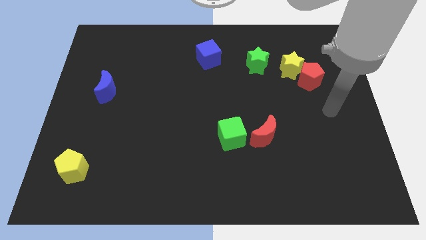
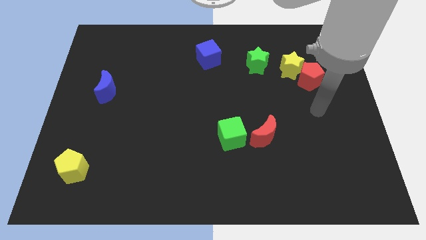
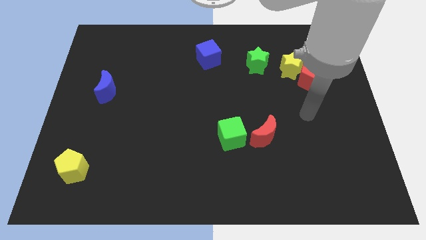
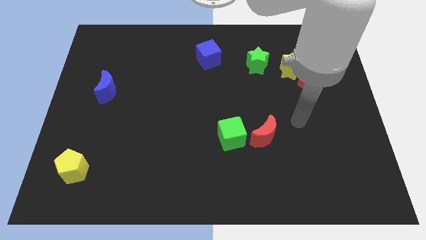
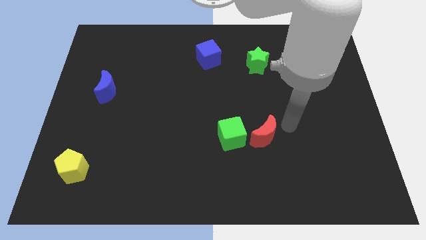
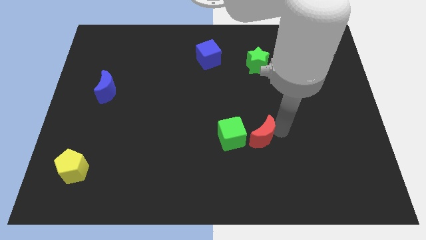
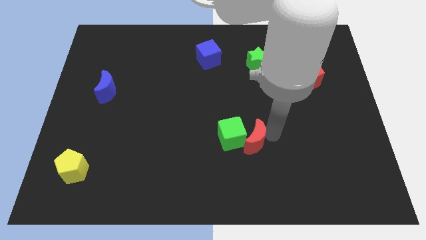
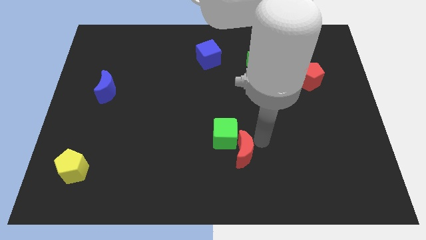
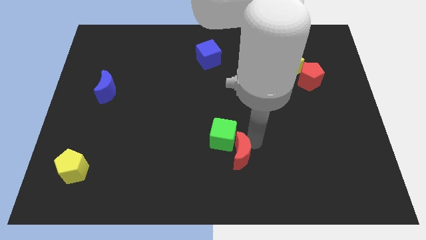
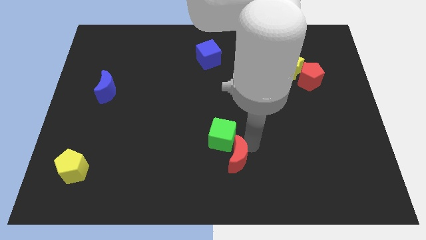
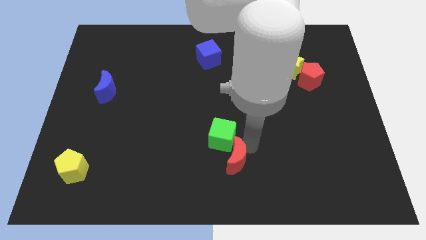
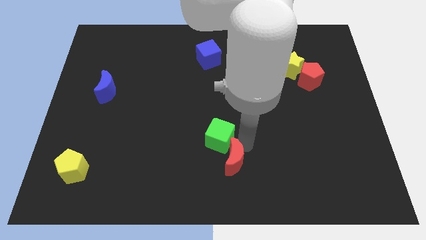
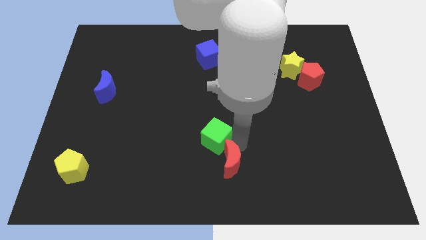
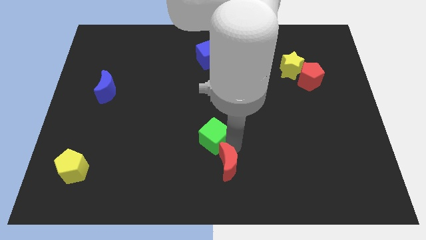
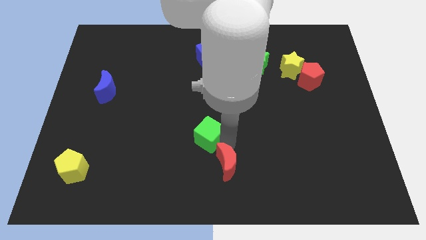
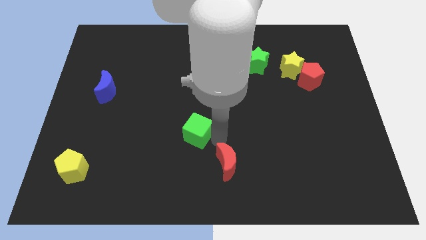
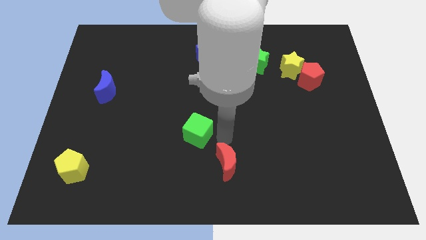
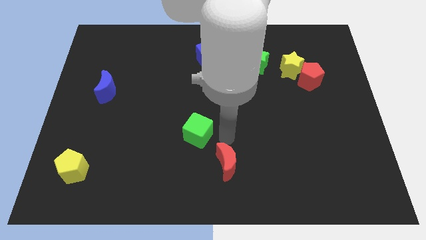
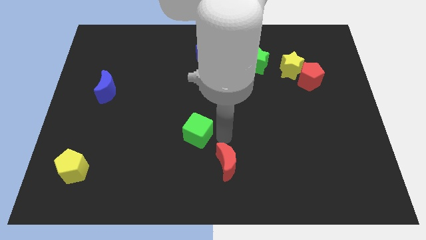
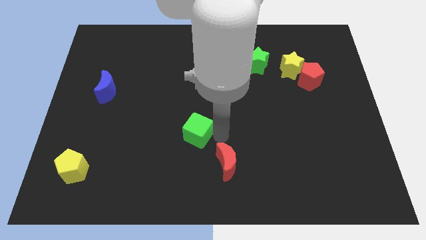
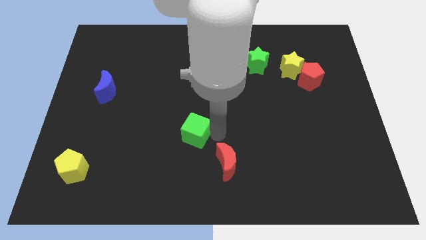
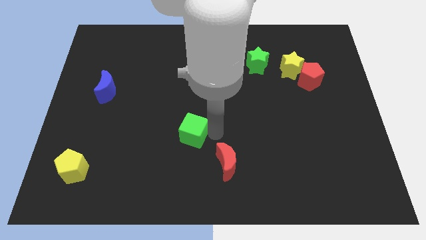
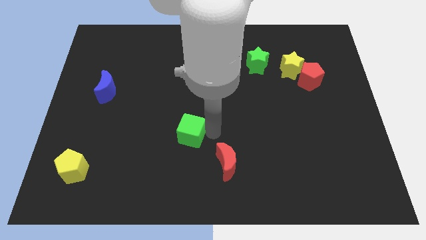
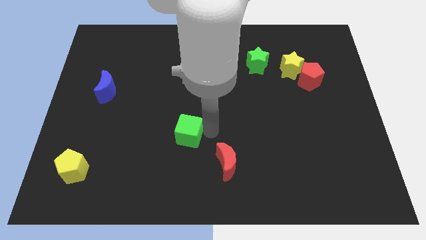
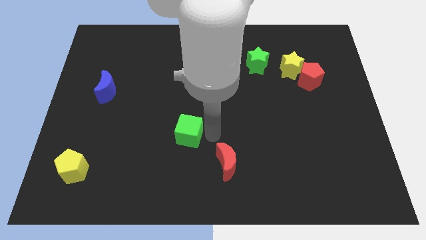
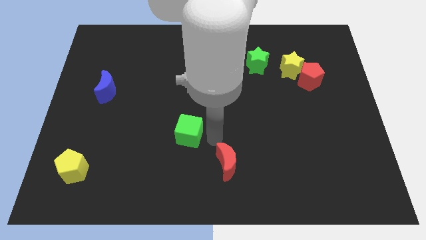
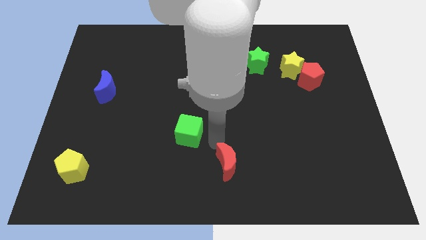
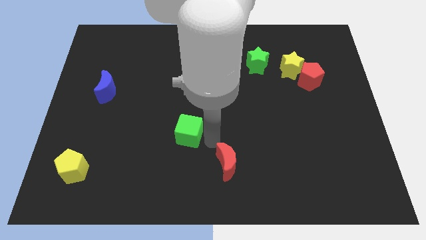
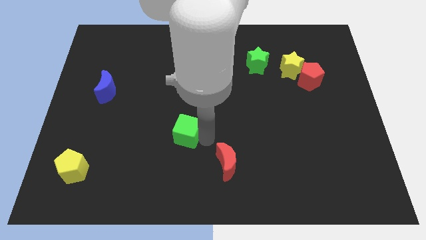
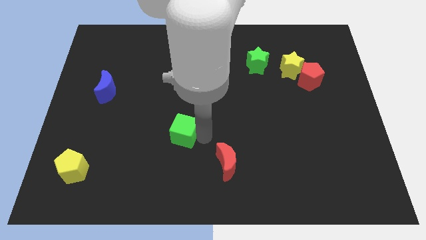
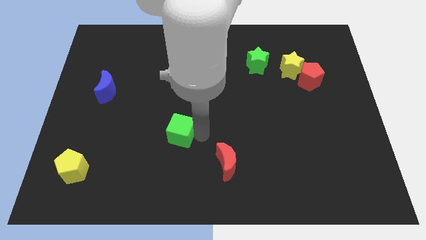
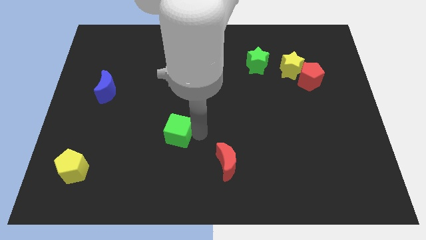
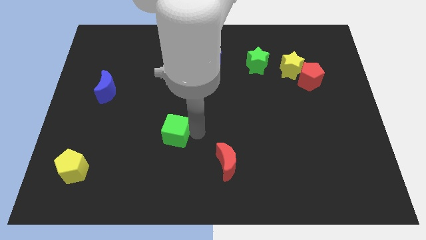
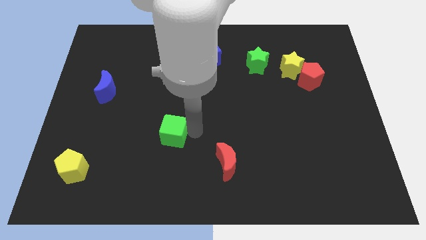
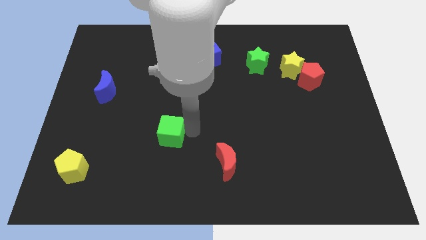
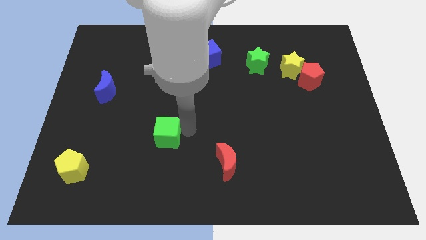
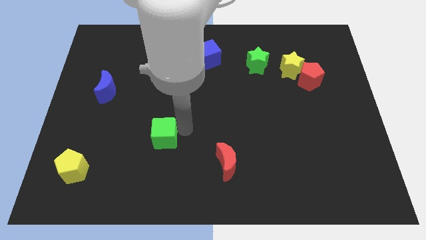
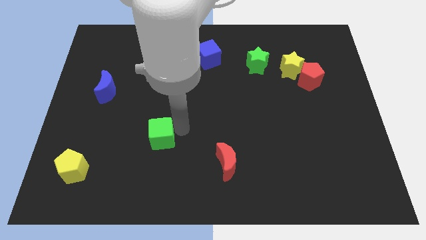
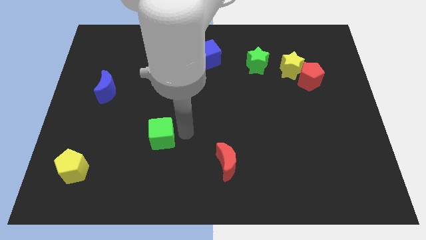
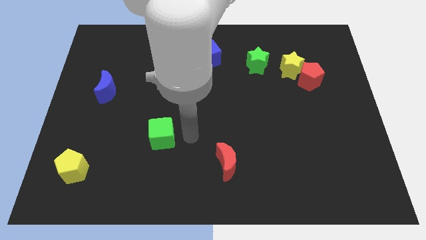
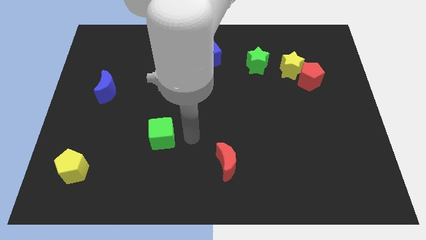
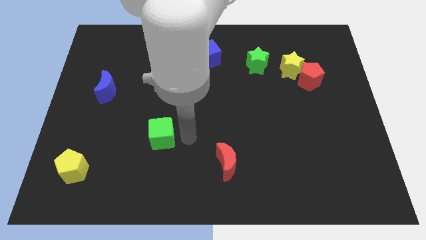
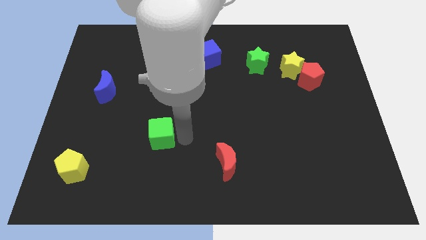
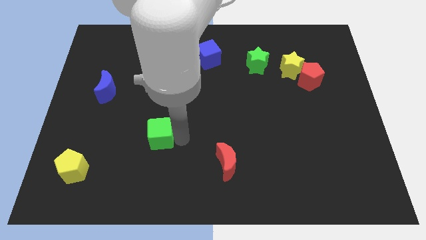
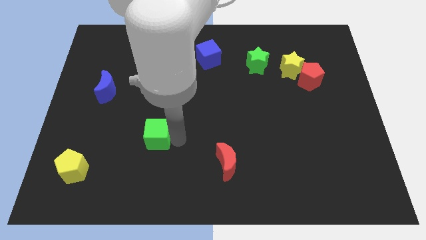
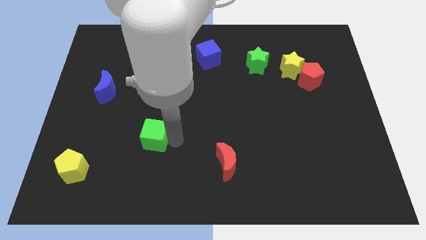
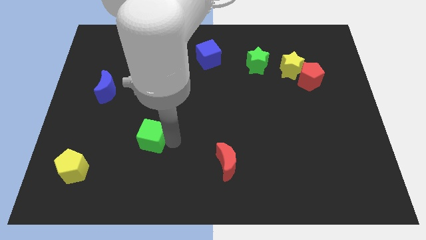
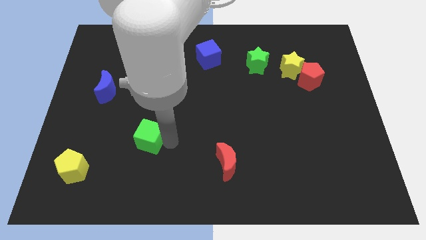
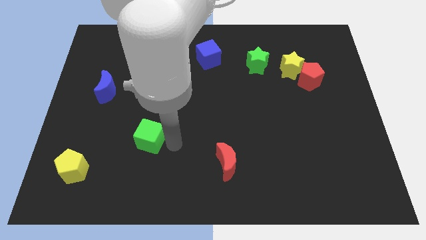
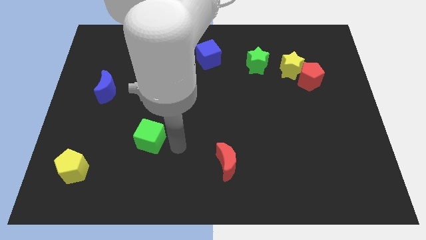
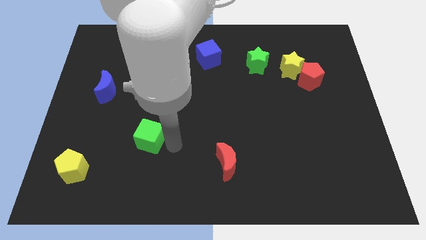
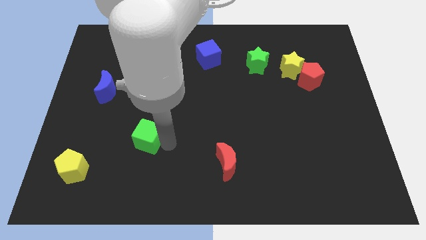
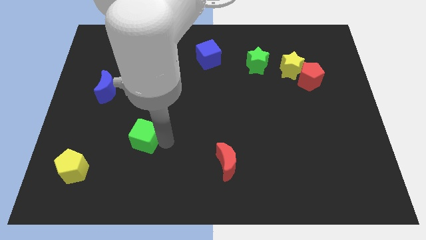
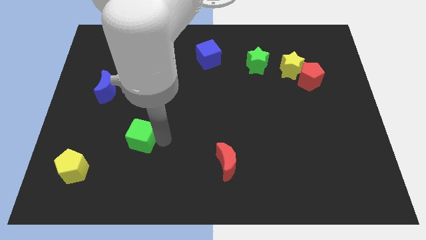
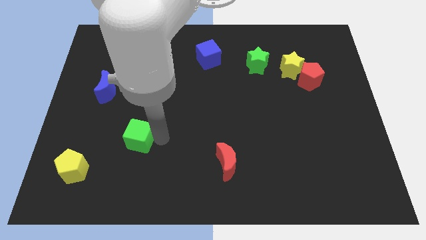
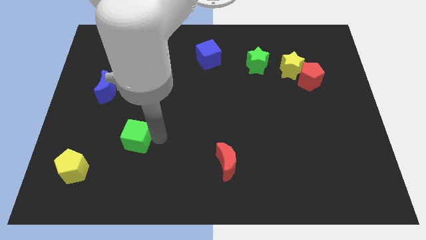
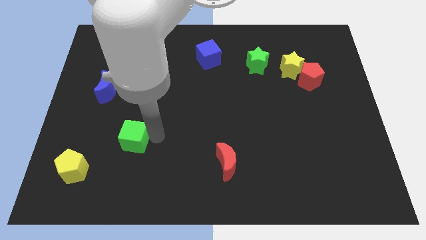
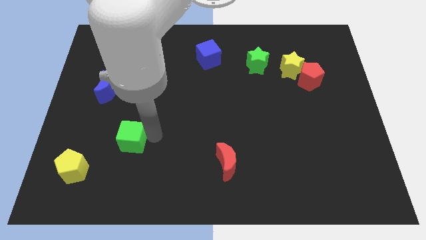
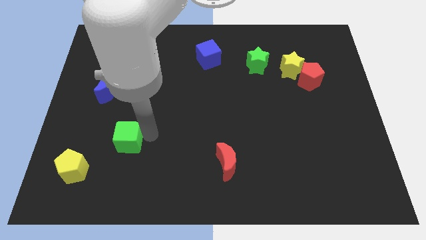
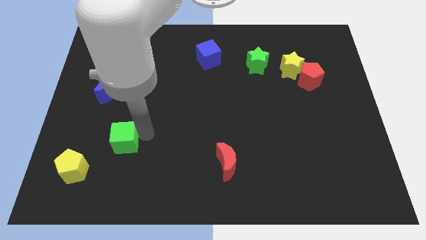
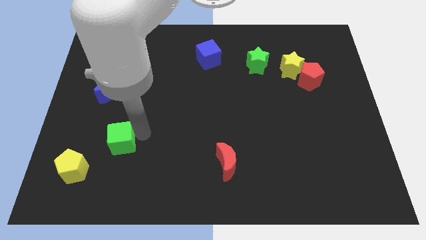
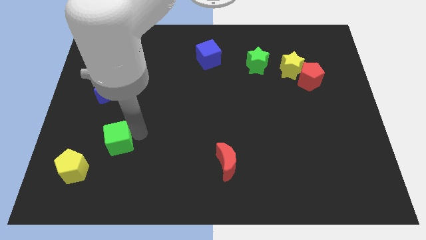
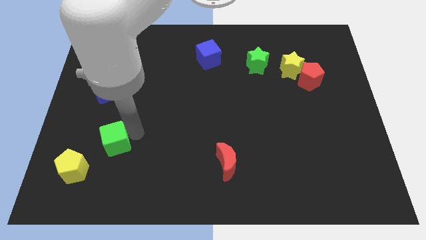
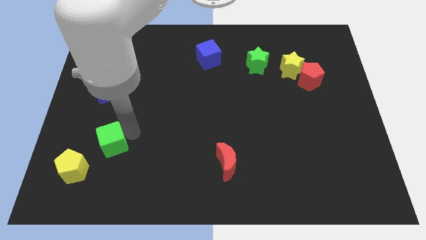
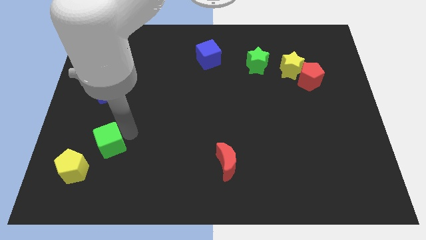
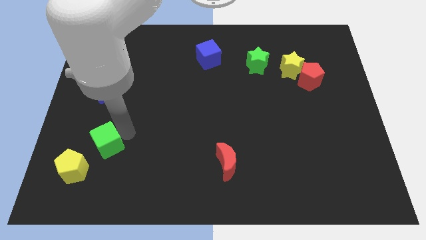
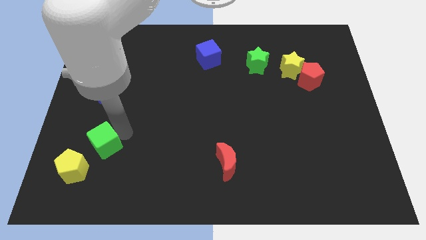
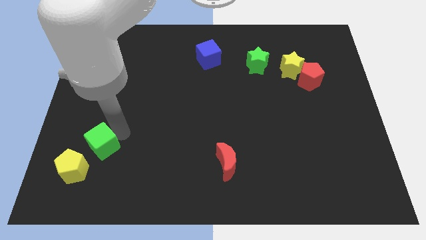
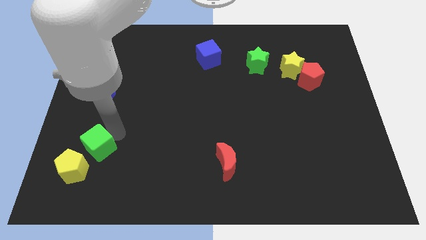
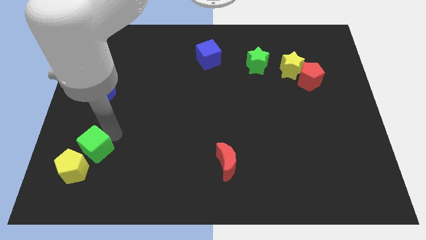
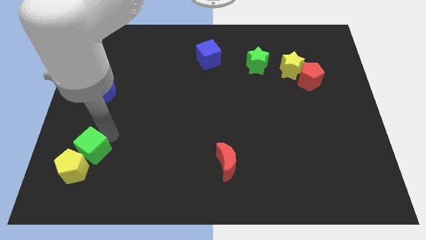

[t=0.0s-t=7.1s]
slide the green cube close to the yellow pentagon
